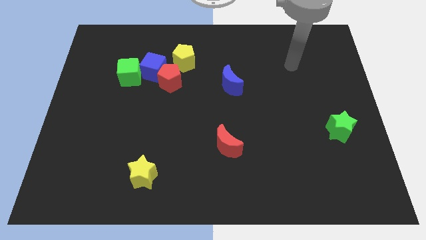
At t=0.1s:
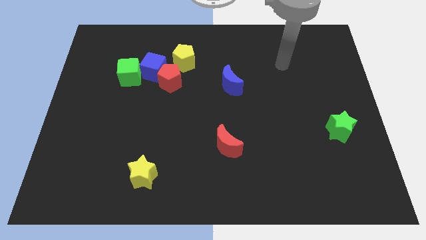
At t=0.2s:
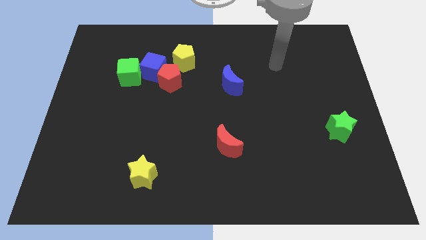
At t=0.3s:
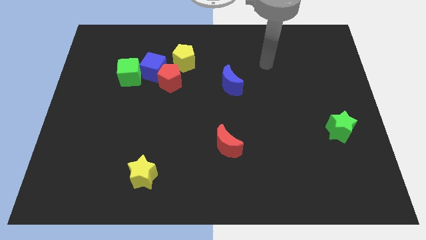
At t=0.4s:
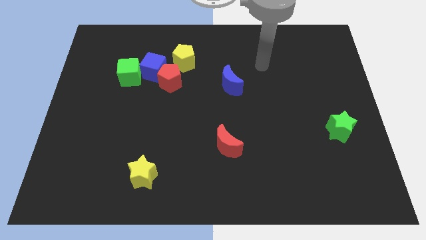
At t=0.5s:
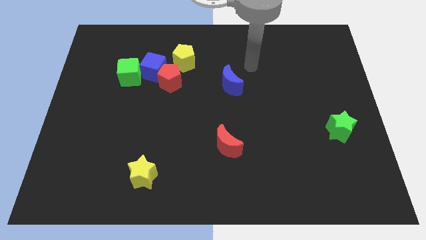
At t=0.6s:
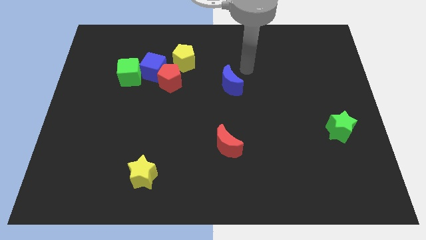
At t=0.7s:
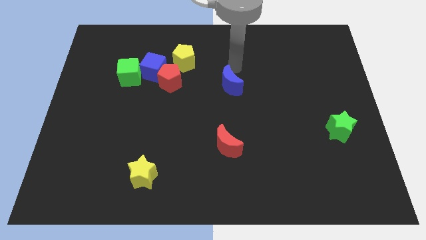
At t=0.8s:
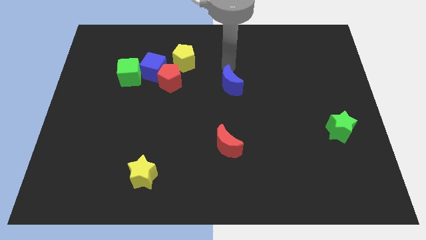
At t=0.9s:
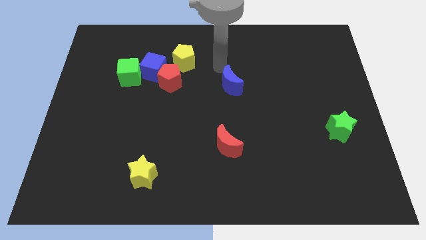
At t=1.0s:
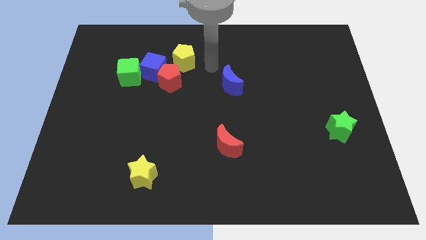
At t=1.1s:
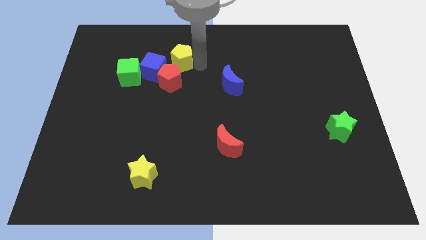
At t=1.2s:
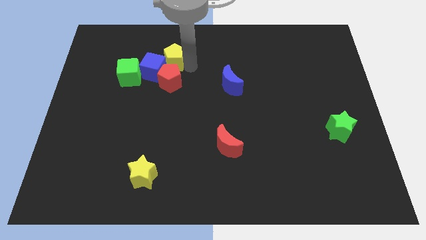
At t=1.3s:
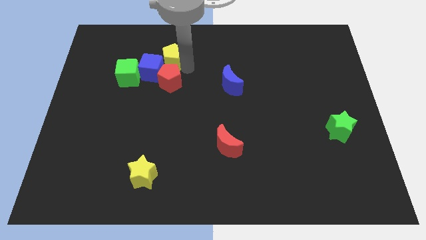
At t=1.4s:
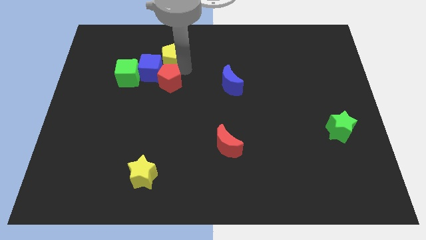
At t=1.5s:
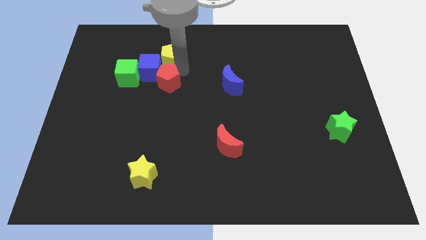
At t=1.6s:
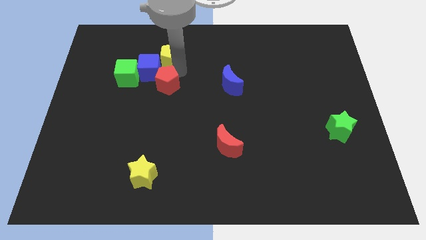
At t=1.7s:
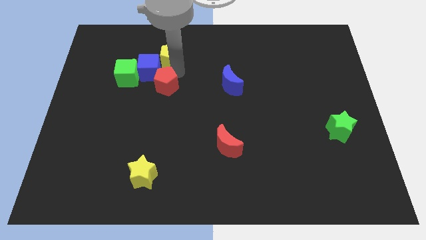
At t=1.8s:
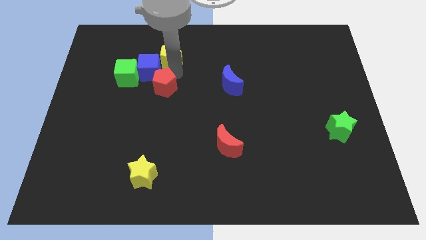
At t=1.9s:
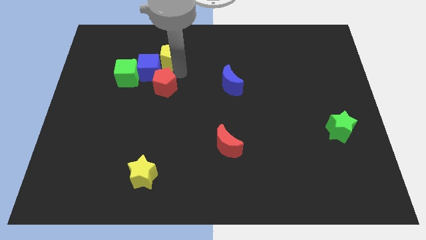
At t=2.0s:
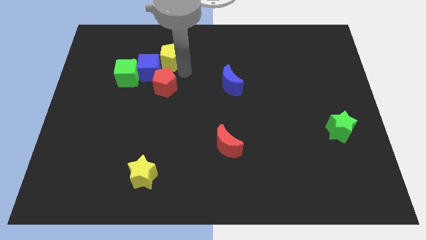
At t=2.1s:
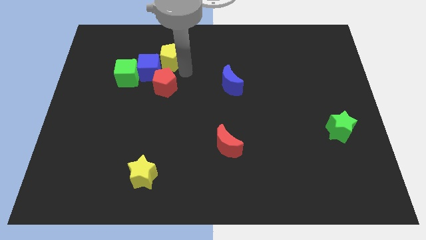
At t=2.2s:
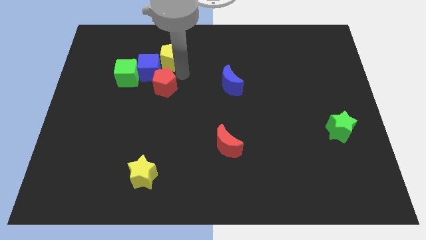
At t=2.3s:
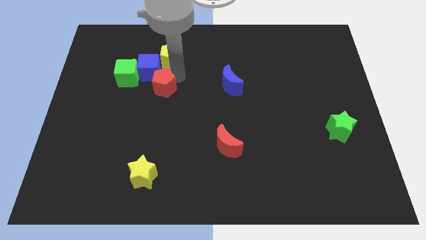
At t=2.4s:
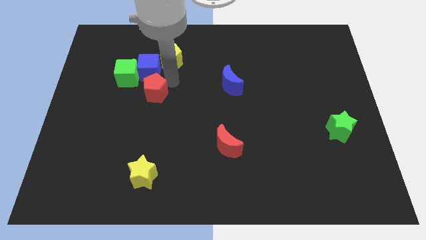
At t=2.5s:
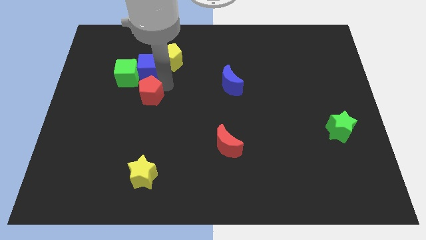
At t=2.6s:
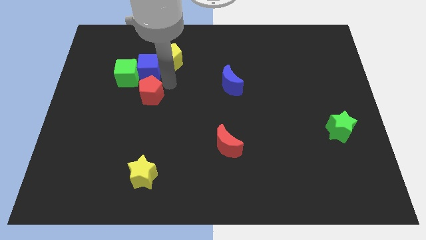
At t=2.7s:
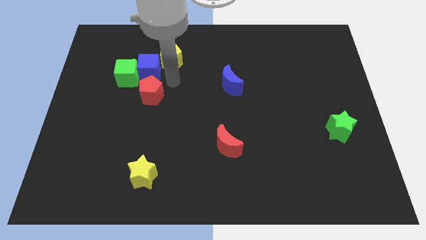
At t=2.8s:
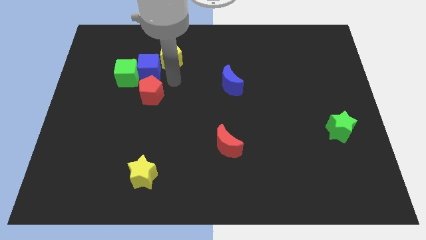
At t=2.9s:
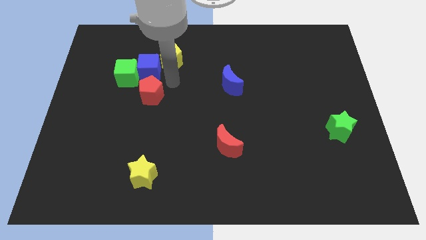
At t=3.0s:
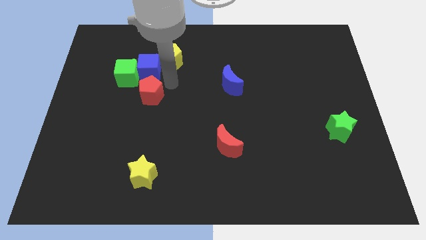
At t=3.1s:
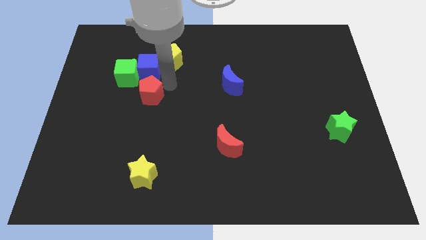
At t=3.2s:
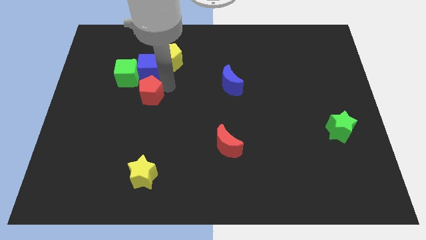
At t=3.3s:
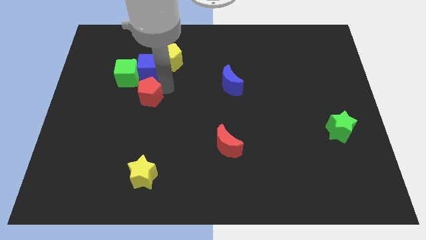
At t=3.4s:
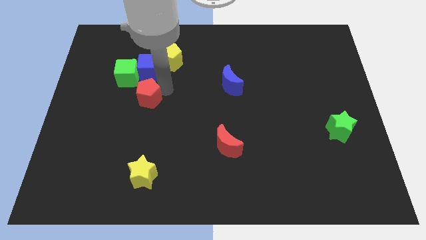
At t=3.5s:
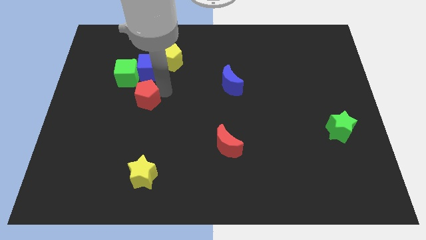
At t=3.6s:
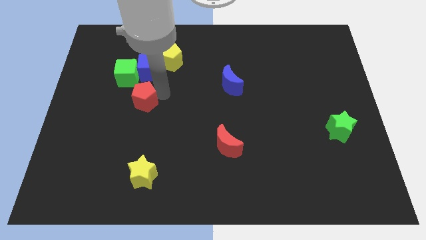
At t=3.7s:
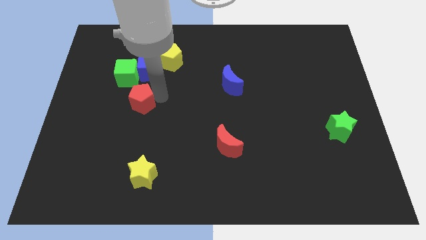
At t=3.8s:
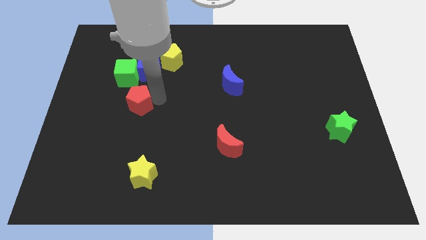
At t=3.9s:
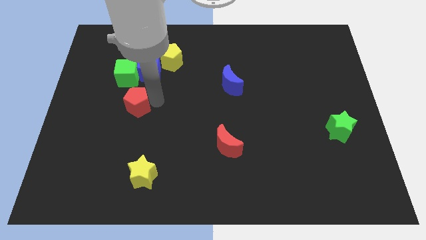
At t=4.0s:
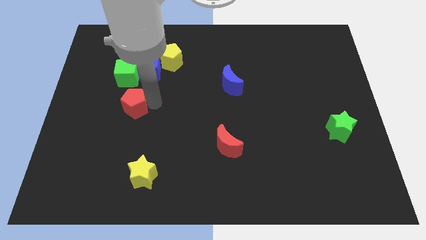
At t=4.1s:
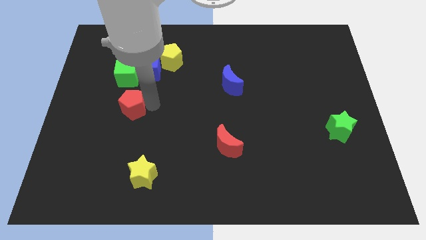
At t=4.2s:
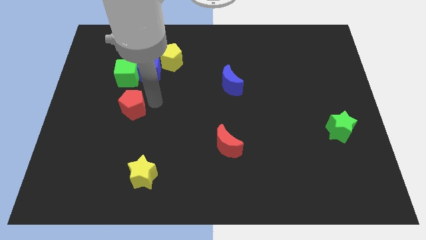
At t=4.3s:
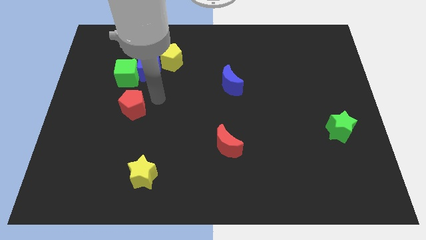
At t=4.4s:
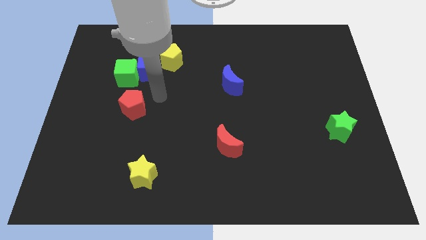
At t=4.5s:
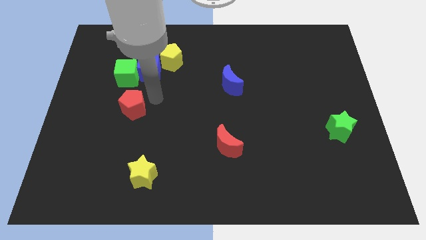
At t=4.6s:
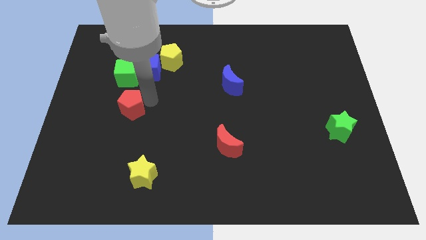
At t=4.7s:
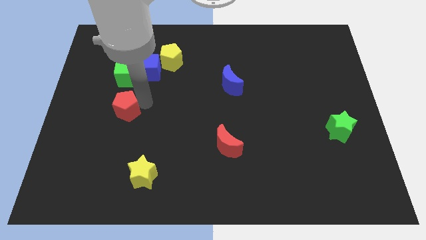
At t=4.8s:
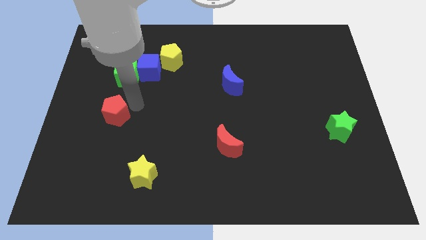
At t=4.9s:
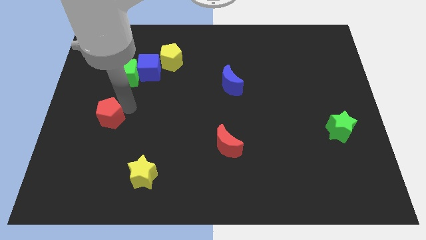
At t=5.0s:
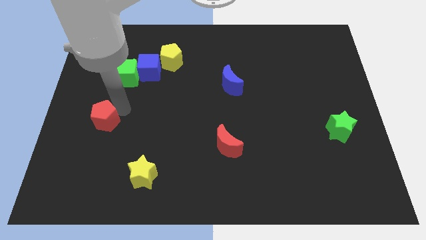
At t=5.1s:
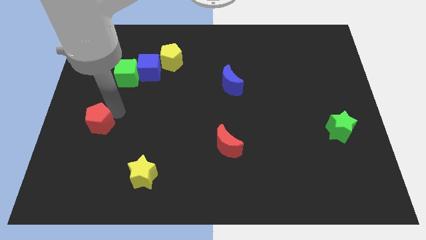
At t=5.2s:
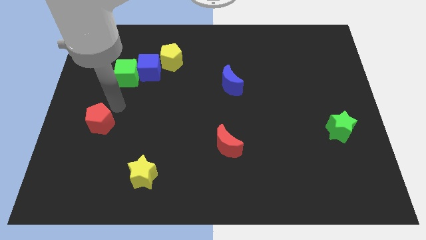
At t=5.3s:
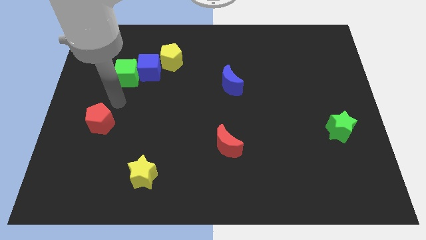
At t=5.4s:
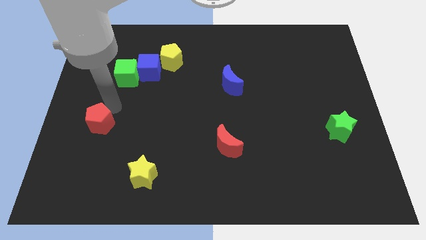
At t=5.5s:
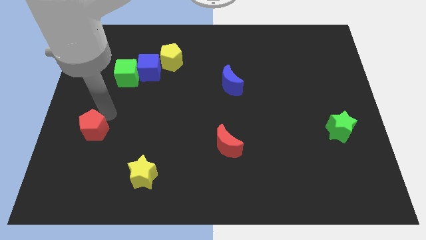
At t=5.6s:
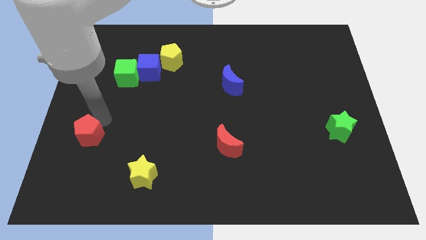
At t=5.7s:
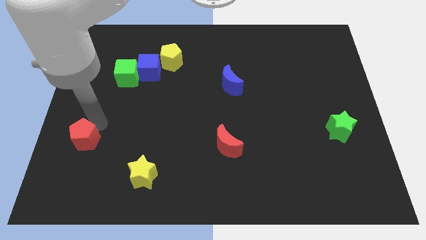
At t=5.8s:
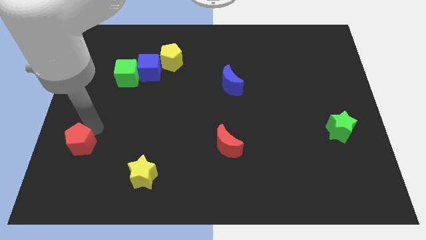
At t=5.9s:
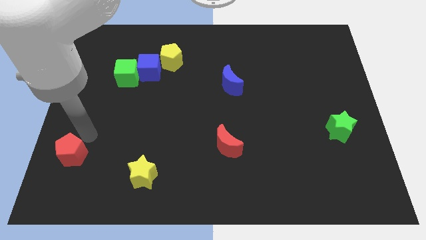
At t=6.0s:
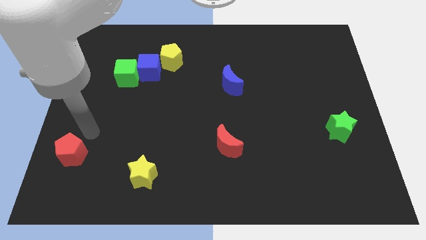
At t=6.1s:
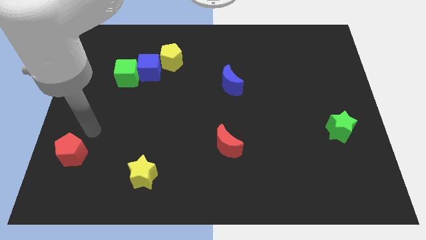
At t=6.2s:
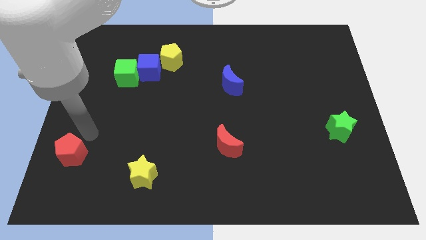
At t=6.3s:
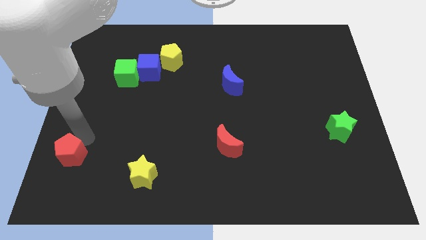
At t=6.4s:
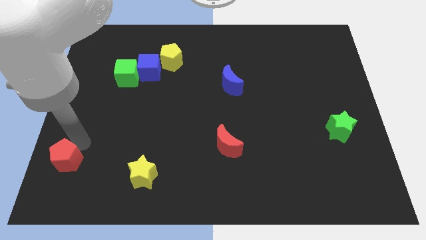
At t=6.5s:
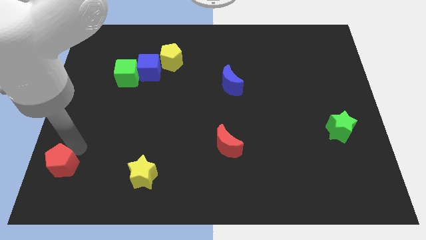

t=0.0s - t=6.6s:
push the red pentagon to the bottom left of the board

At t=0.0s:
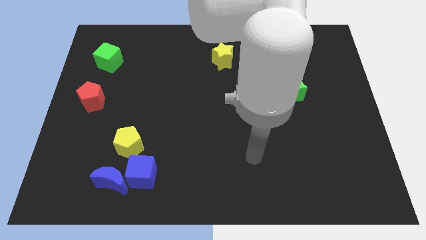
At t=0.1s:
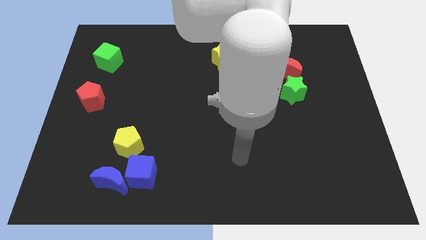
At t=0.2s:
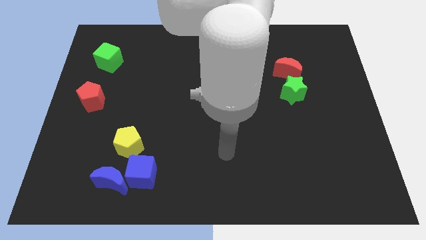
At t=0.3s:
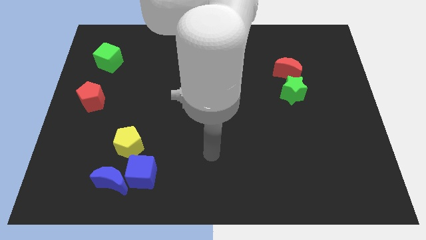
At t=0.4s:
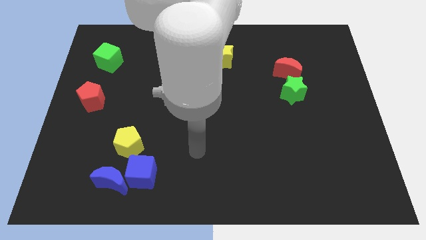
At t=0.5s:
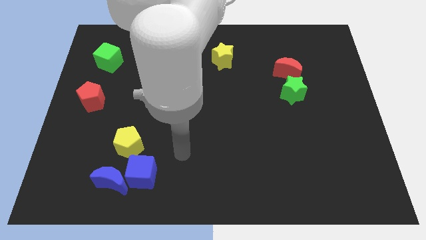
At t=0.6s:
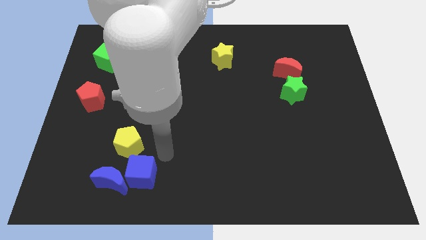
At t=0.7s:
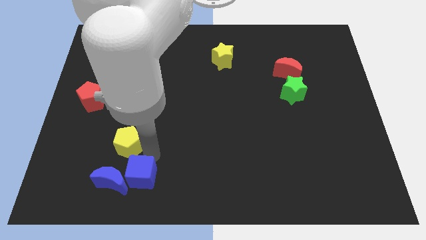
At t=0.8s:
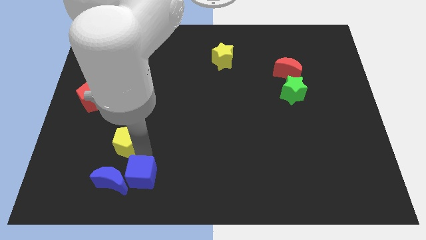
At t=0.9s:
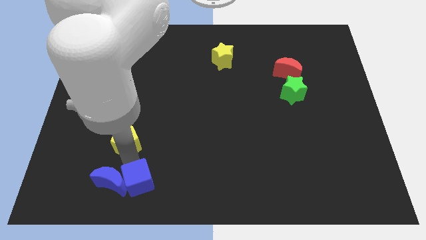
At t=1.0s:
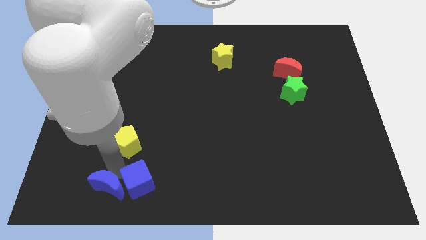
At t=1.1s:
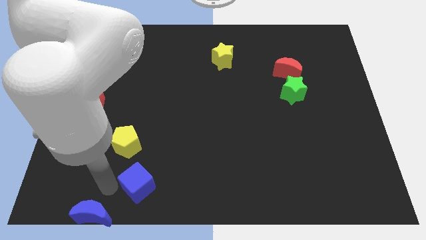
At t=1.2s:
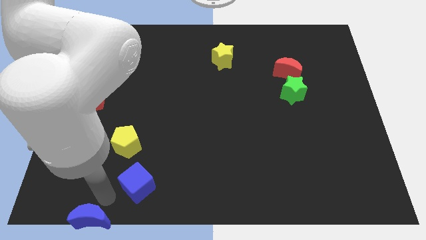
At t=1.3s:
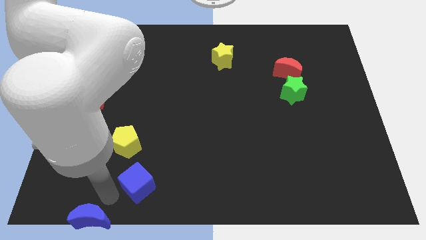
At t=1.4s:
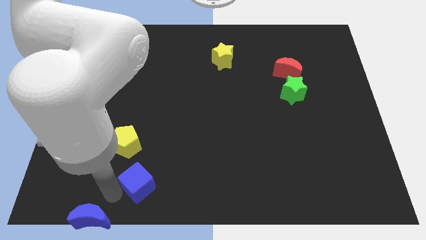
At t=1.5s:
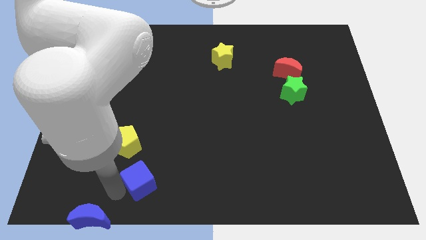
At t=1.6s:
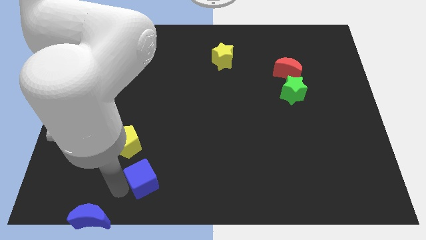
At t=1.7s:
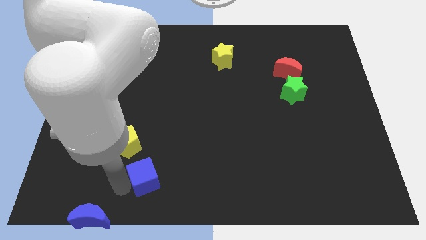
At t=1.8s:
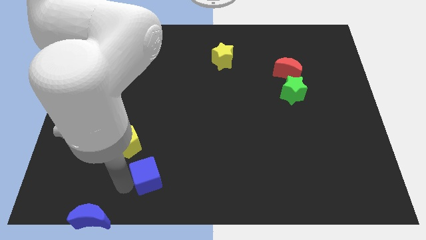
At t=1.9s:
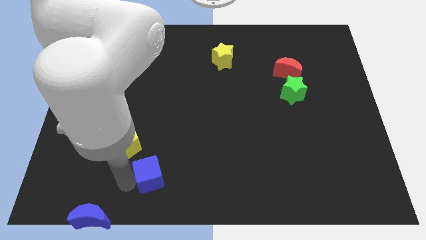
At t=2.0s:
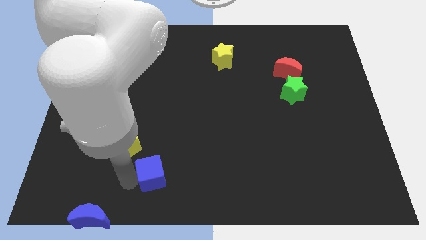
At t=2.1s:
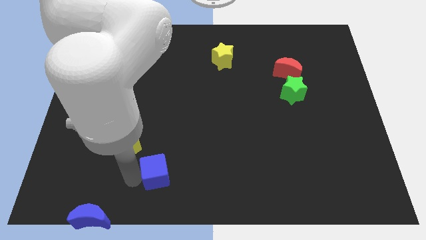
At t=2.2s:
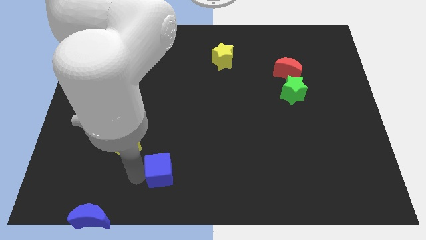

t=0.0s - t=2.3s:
slide the blue cube to the bottom
